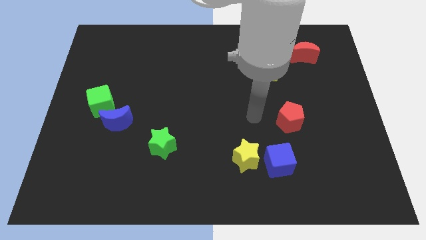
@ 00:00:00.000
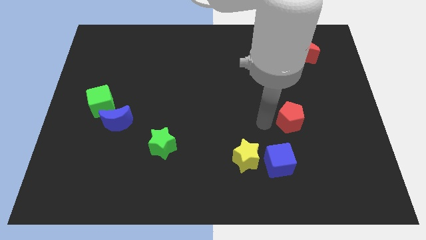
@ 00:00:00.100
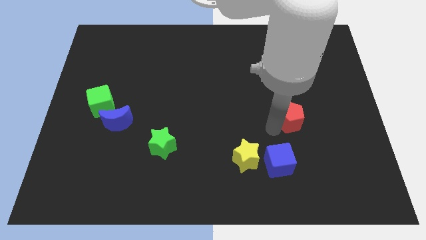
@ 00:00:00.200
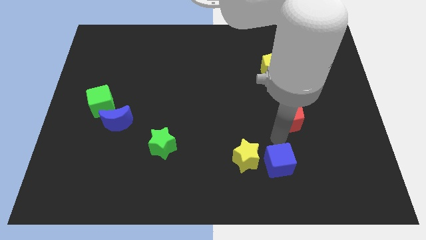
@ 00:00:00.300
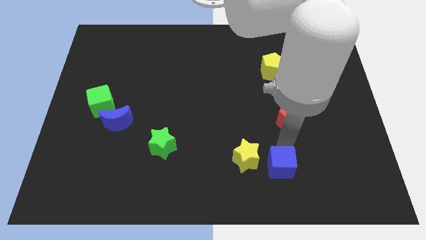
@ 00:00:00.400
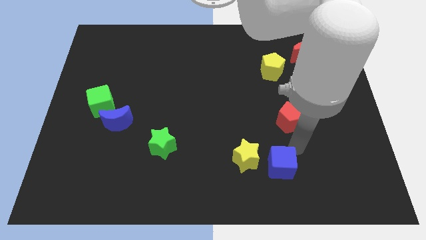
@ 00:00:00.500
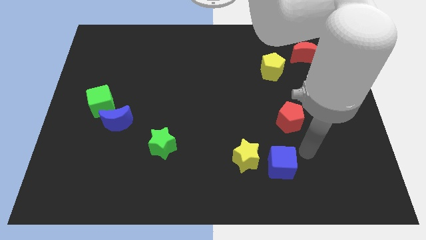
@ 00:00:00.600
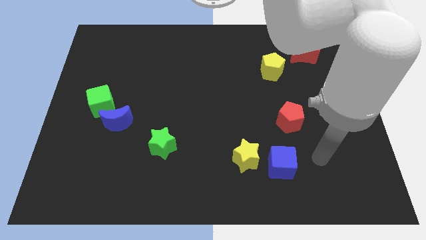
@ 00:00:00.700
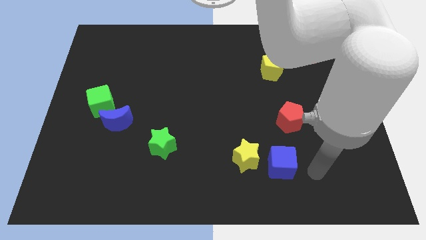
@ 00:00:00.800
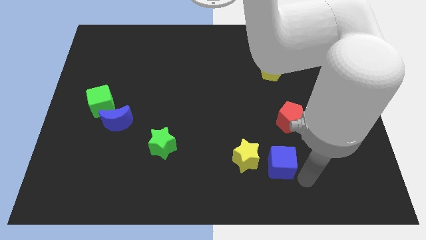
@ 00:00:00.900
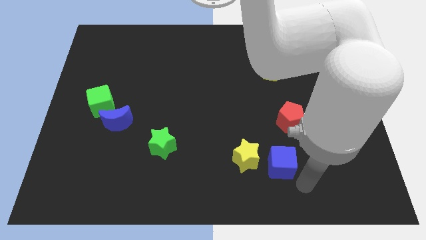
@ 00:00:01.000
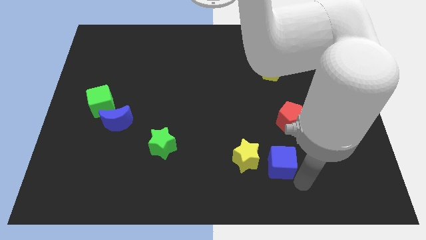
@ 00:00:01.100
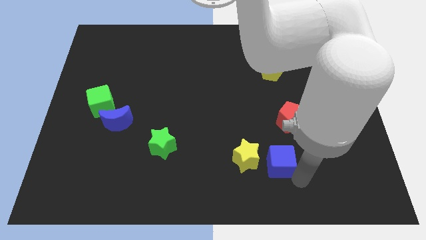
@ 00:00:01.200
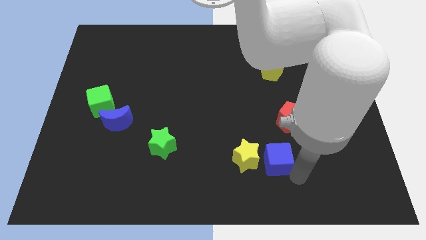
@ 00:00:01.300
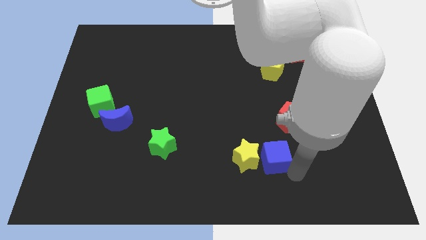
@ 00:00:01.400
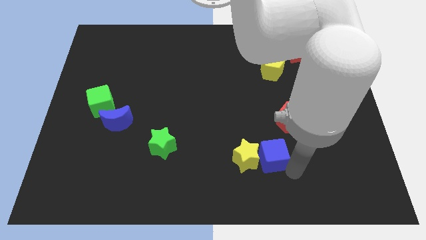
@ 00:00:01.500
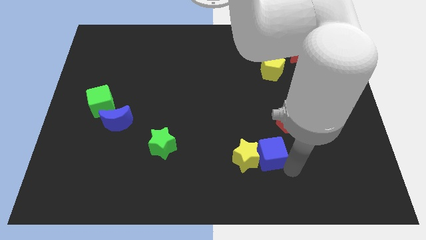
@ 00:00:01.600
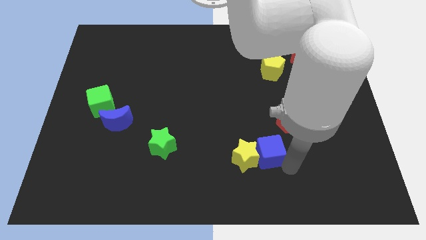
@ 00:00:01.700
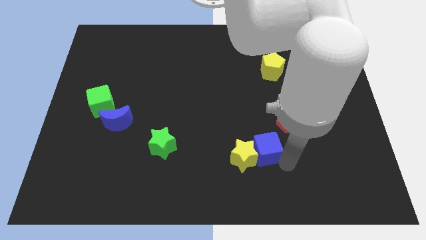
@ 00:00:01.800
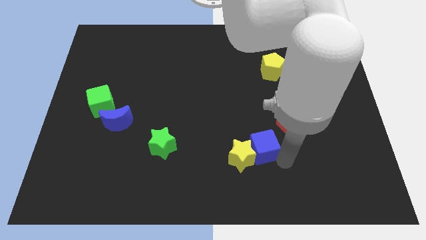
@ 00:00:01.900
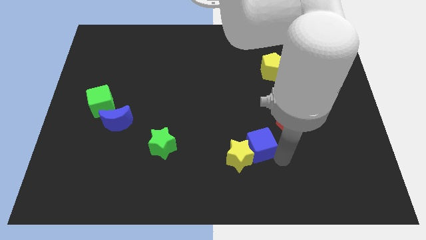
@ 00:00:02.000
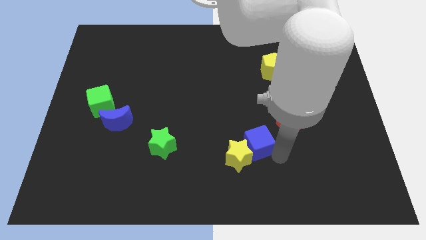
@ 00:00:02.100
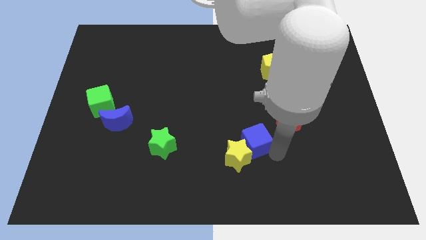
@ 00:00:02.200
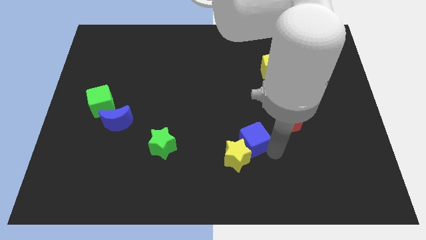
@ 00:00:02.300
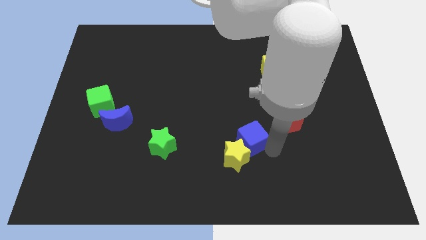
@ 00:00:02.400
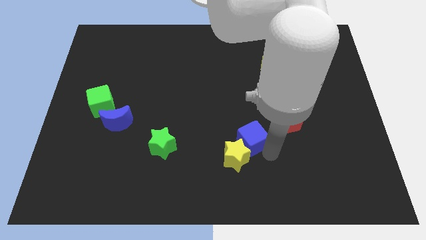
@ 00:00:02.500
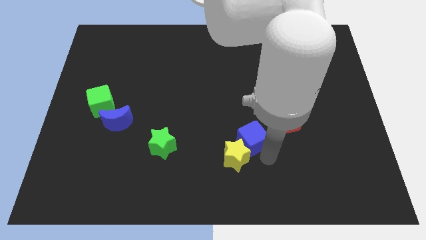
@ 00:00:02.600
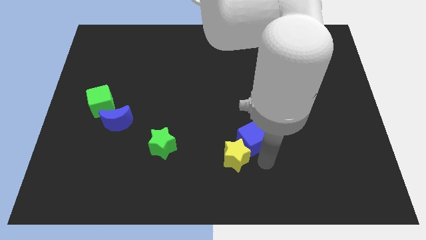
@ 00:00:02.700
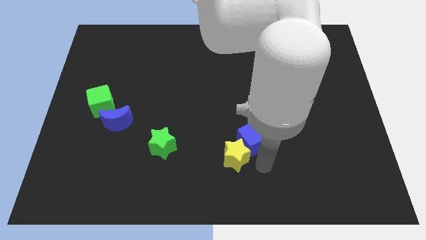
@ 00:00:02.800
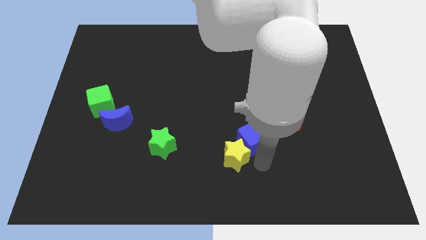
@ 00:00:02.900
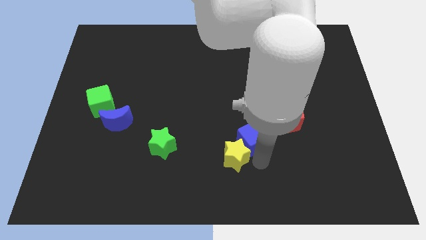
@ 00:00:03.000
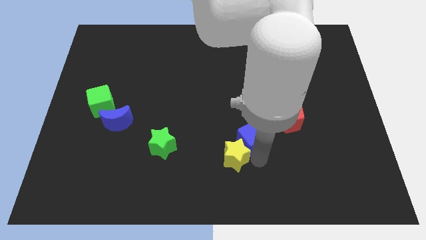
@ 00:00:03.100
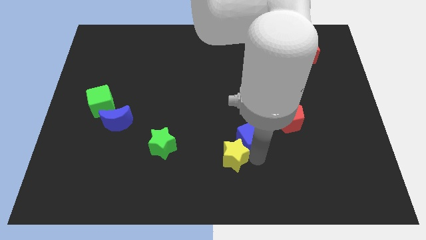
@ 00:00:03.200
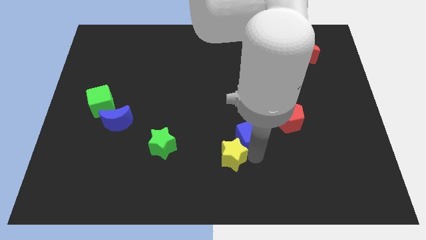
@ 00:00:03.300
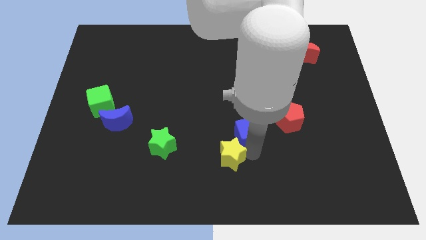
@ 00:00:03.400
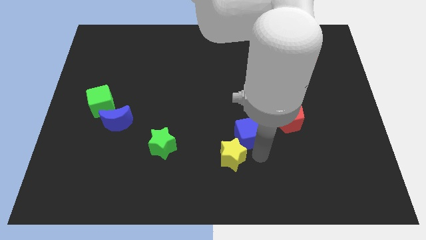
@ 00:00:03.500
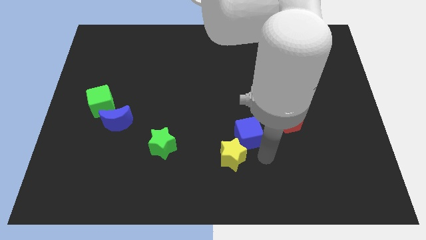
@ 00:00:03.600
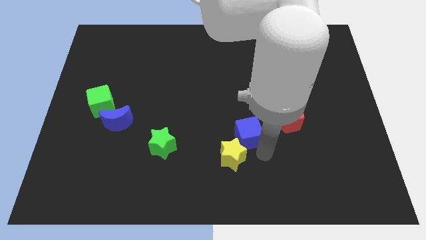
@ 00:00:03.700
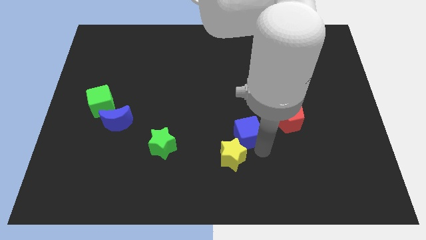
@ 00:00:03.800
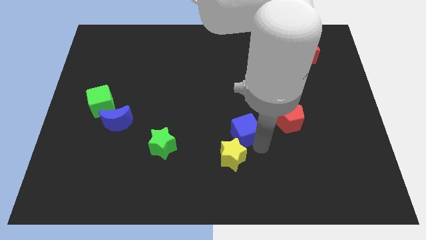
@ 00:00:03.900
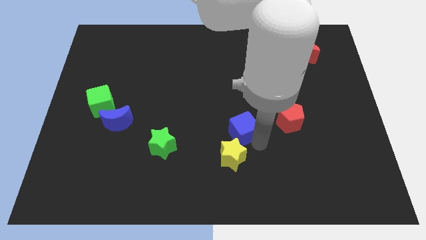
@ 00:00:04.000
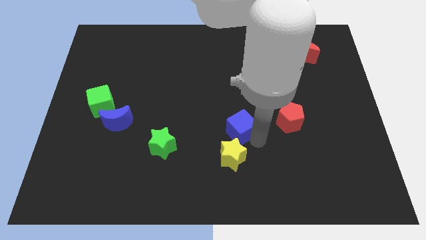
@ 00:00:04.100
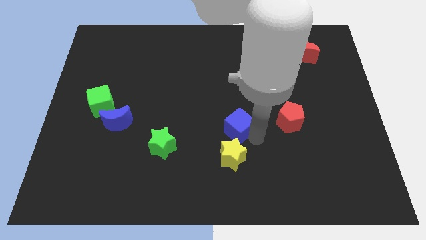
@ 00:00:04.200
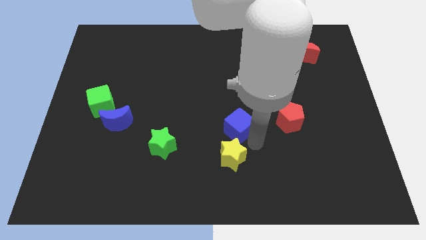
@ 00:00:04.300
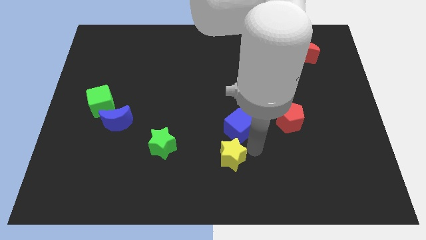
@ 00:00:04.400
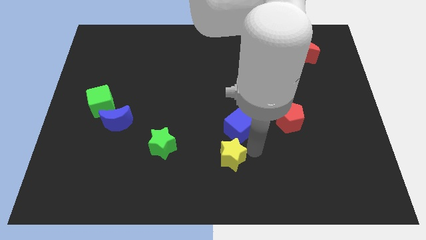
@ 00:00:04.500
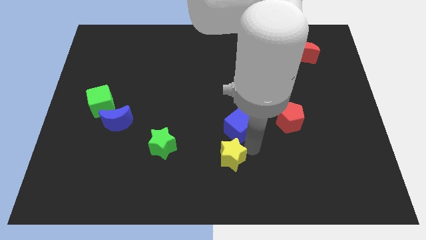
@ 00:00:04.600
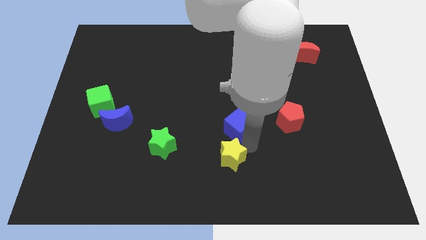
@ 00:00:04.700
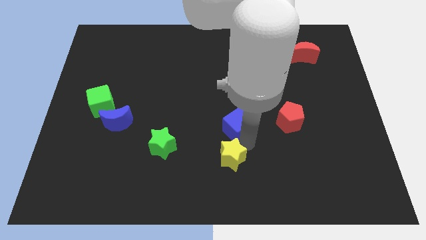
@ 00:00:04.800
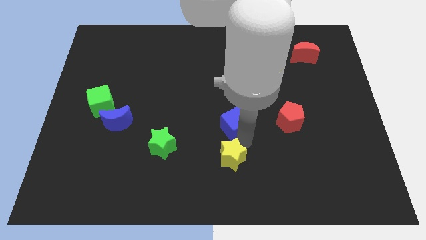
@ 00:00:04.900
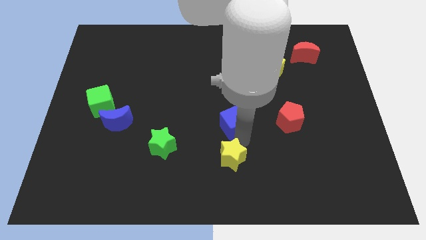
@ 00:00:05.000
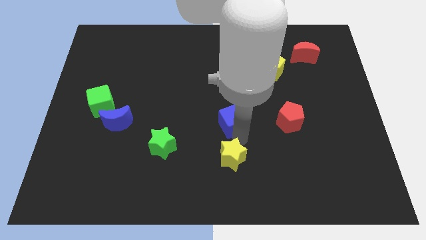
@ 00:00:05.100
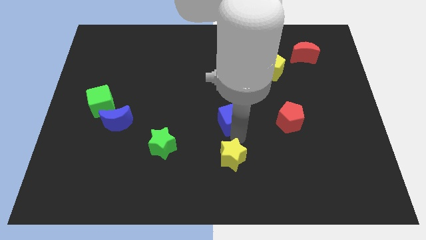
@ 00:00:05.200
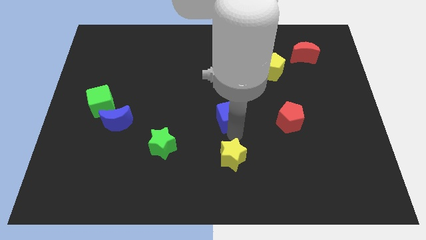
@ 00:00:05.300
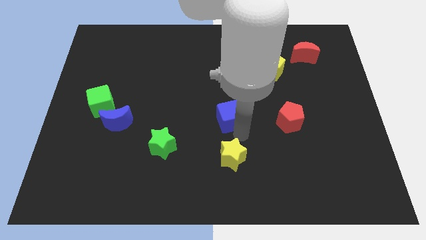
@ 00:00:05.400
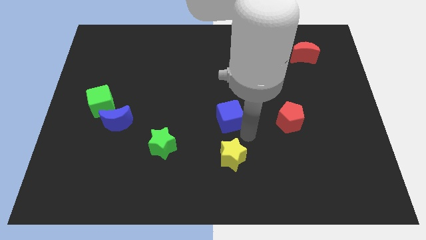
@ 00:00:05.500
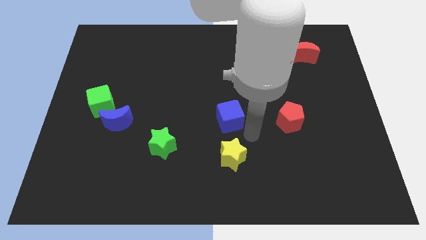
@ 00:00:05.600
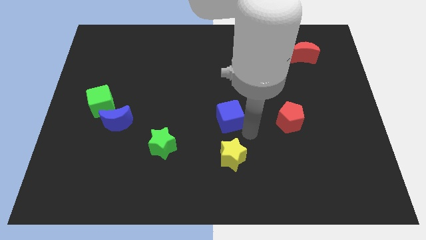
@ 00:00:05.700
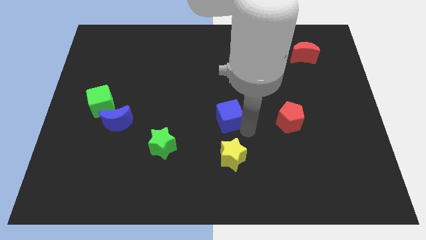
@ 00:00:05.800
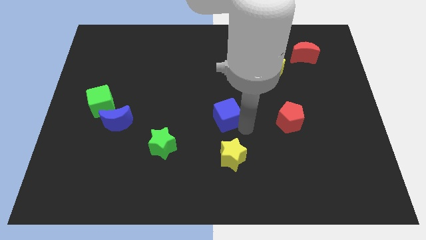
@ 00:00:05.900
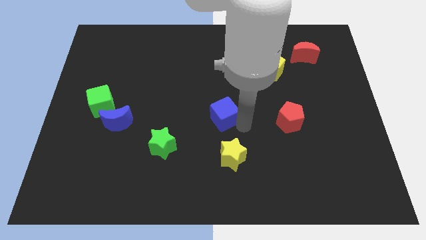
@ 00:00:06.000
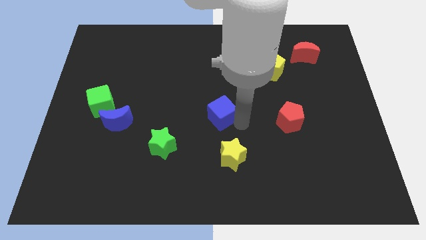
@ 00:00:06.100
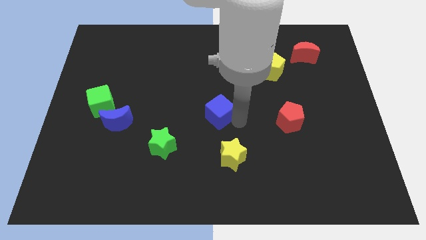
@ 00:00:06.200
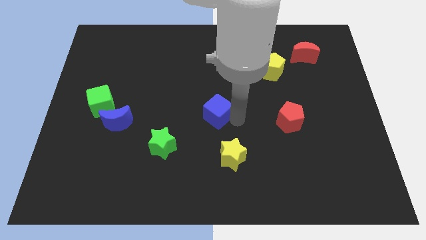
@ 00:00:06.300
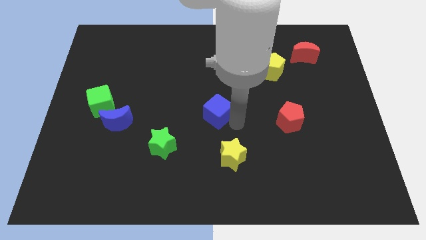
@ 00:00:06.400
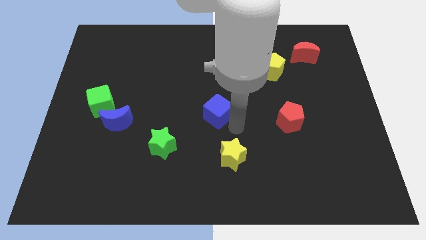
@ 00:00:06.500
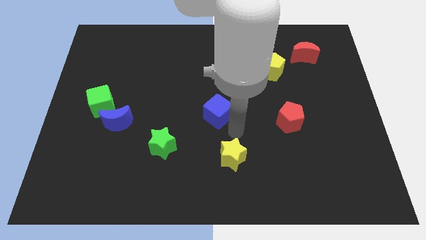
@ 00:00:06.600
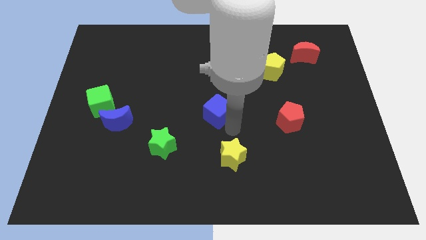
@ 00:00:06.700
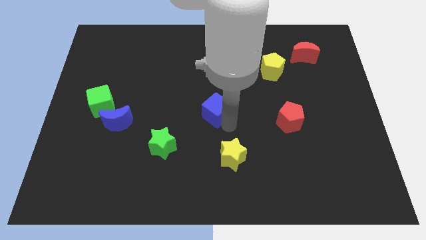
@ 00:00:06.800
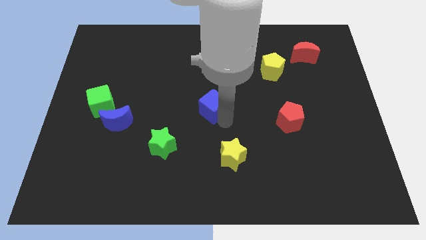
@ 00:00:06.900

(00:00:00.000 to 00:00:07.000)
slide the blue cube diagonally up and left

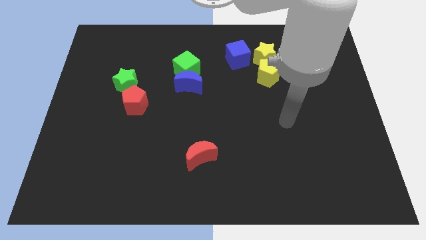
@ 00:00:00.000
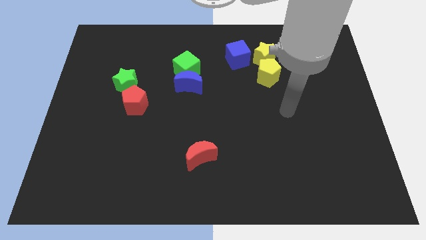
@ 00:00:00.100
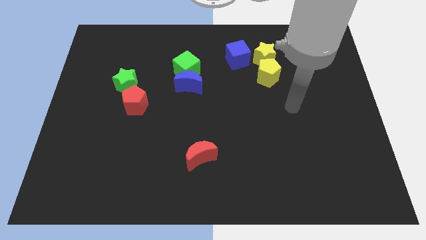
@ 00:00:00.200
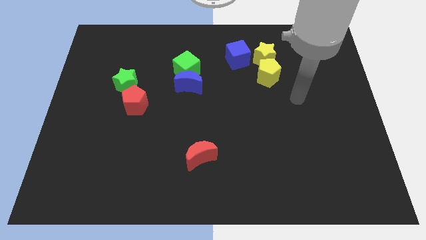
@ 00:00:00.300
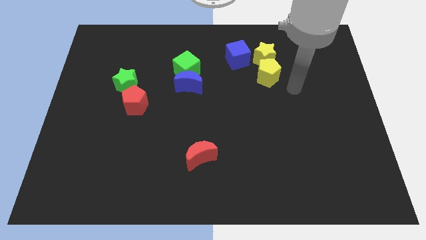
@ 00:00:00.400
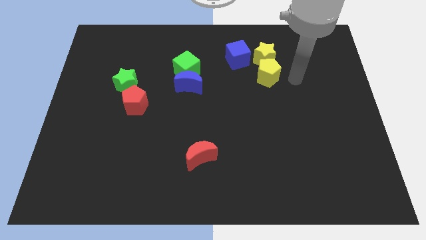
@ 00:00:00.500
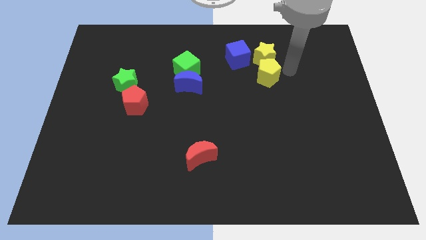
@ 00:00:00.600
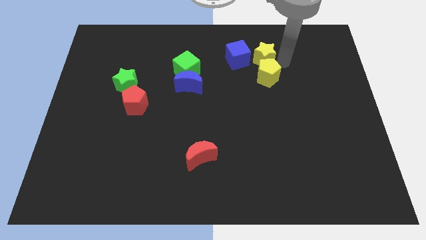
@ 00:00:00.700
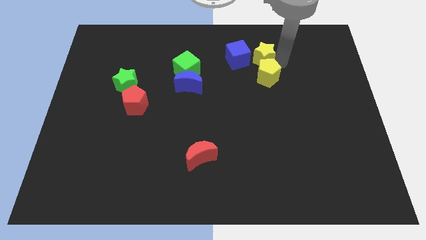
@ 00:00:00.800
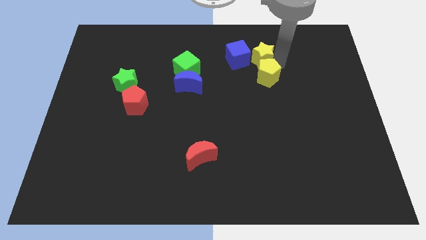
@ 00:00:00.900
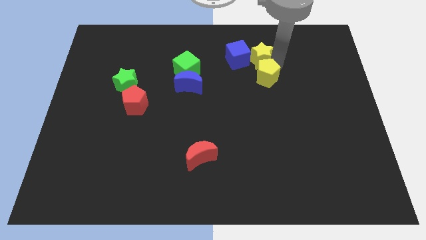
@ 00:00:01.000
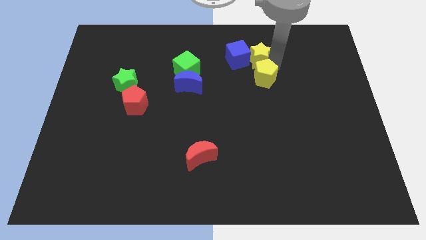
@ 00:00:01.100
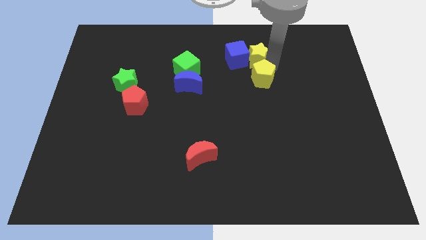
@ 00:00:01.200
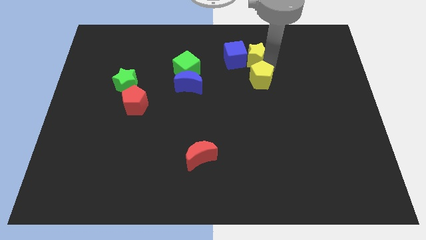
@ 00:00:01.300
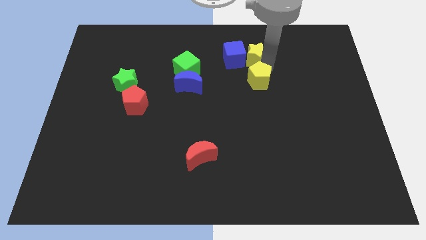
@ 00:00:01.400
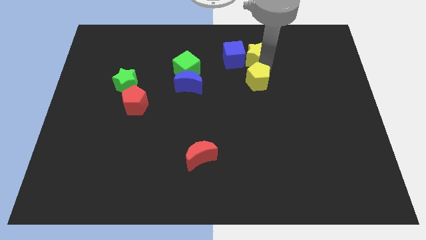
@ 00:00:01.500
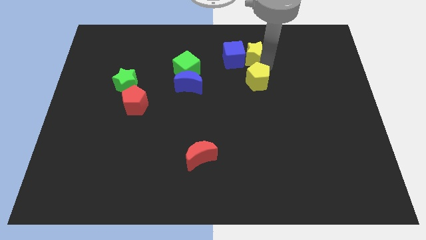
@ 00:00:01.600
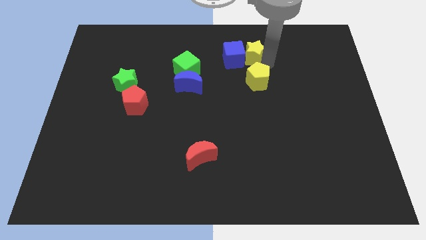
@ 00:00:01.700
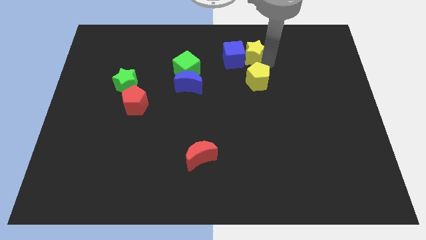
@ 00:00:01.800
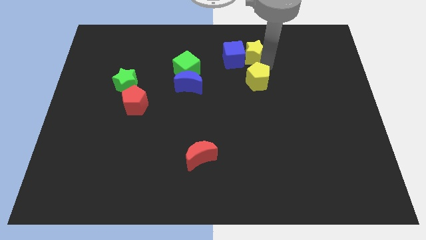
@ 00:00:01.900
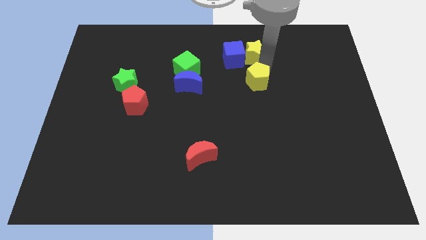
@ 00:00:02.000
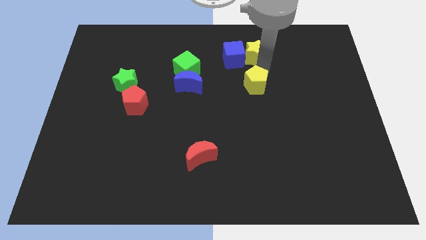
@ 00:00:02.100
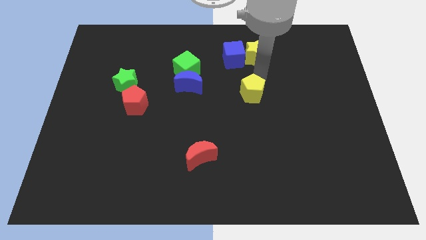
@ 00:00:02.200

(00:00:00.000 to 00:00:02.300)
slightly push the yellow pentagon downwards and then to the left
